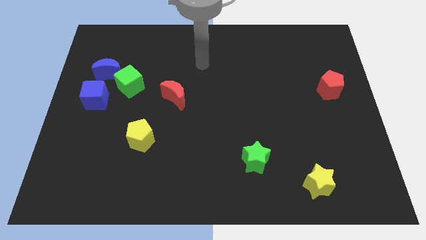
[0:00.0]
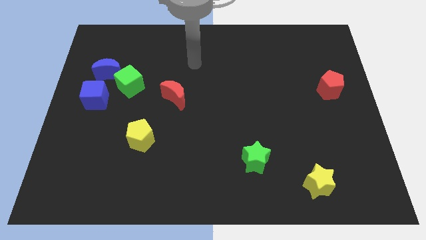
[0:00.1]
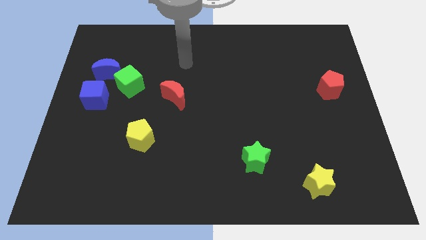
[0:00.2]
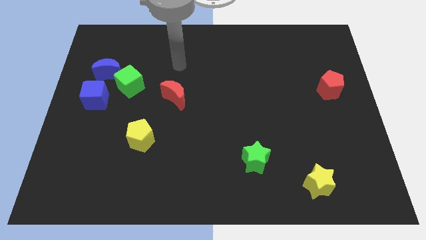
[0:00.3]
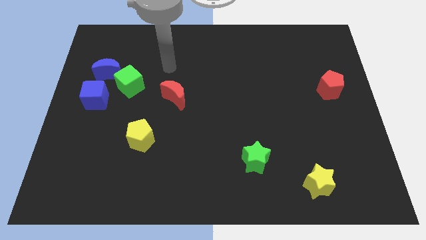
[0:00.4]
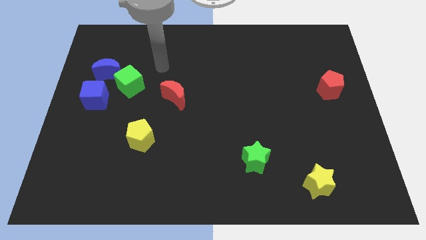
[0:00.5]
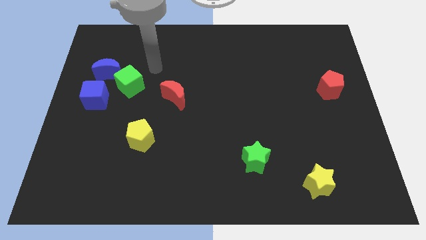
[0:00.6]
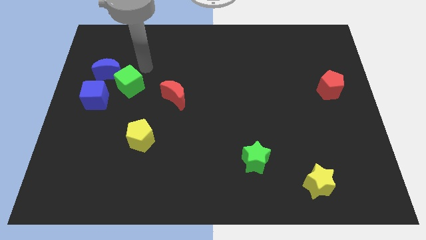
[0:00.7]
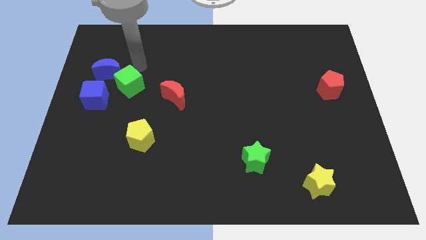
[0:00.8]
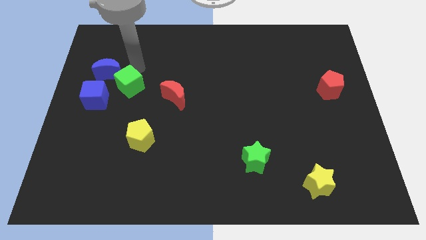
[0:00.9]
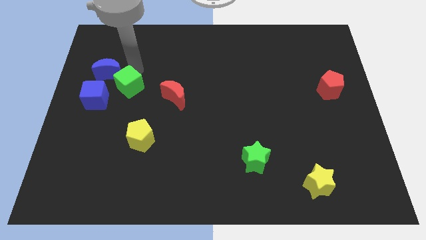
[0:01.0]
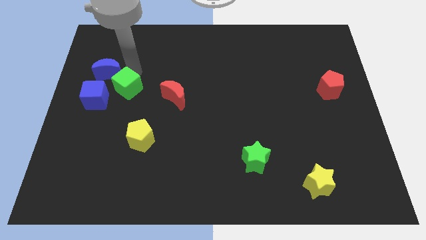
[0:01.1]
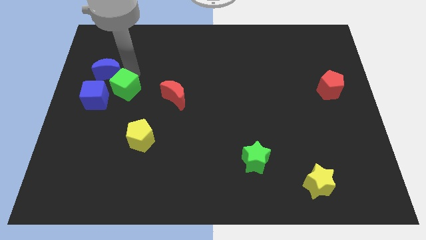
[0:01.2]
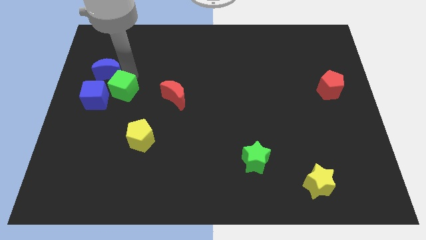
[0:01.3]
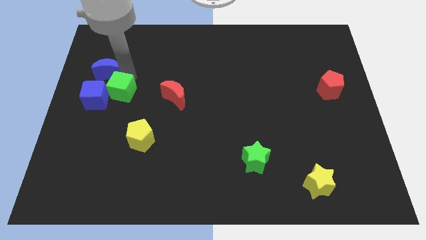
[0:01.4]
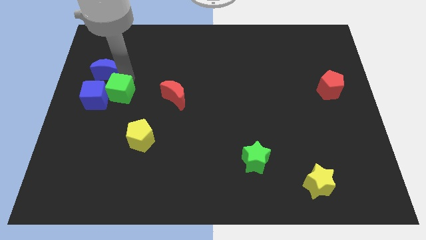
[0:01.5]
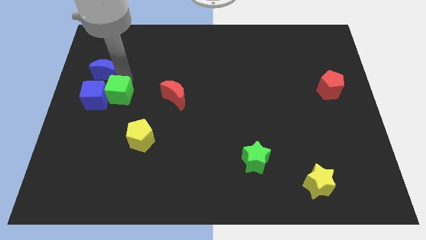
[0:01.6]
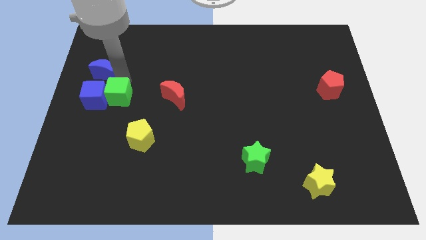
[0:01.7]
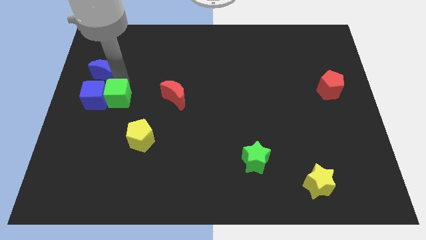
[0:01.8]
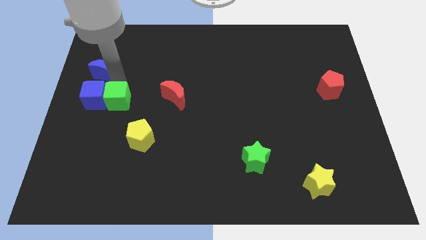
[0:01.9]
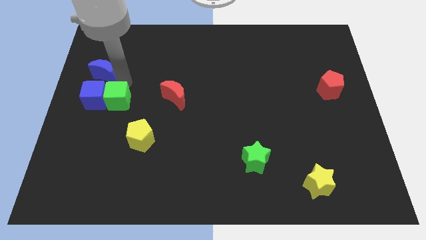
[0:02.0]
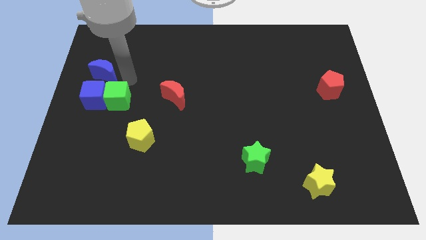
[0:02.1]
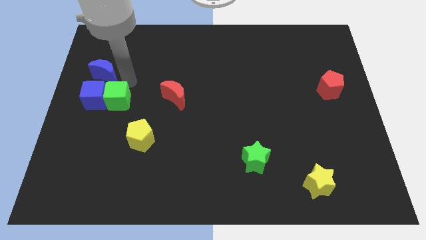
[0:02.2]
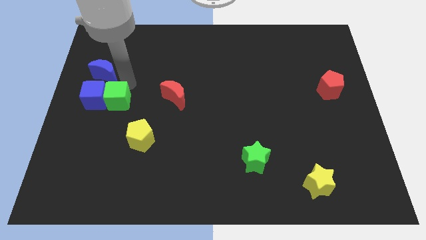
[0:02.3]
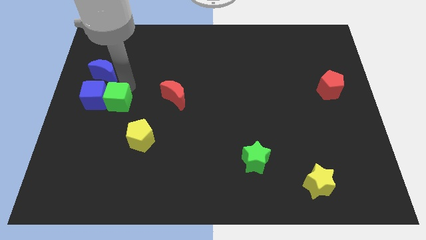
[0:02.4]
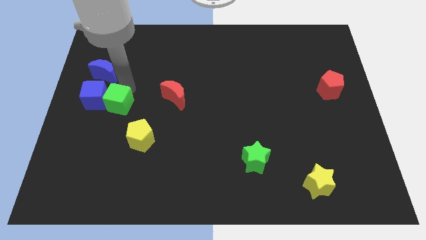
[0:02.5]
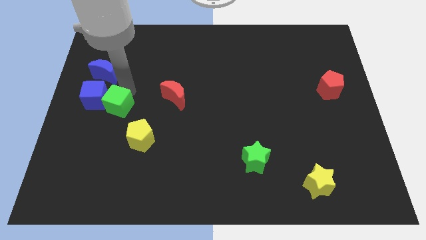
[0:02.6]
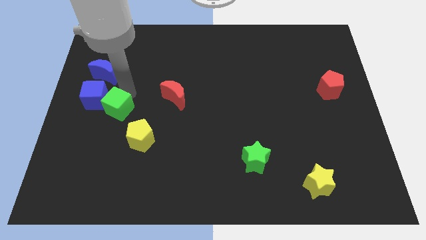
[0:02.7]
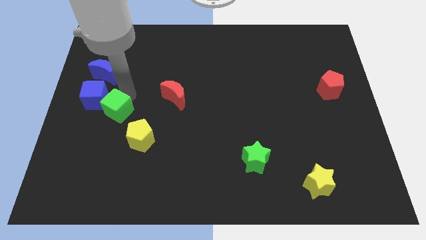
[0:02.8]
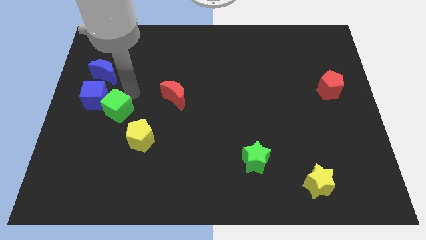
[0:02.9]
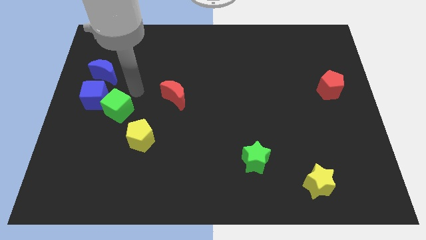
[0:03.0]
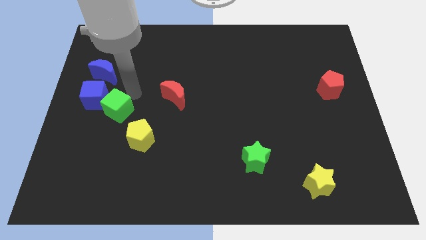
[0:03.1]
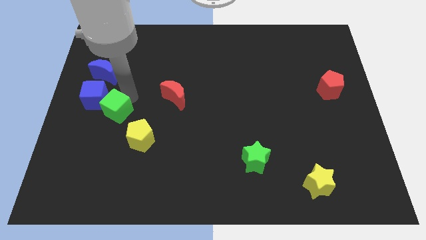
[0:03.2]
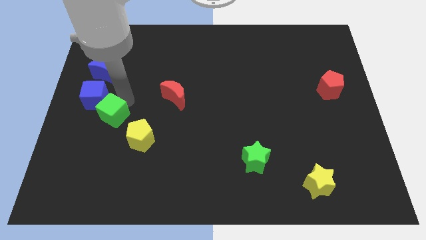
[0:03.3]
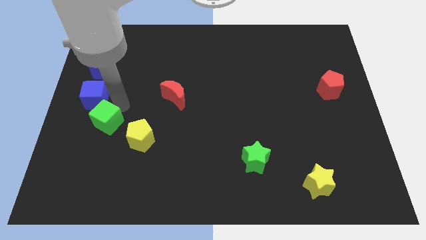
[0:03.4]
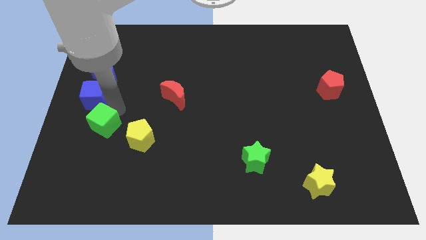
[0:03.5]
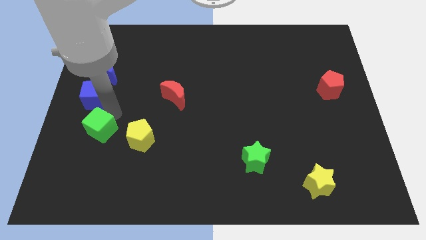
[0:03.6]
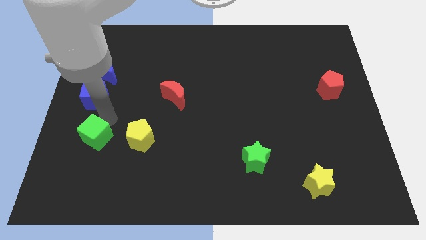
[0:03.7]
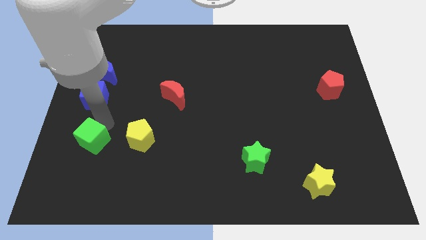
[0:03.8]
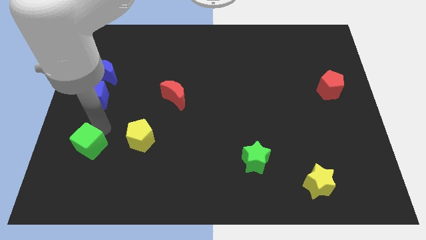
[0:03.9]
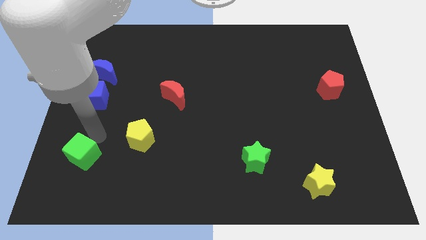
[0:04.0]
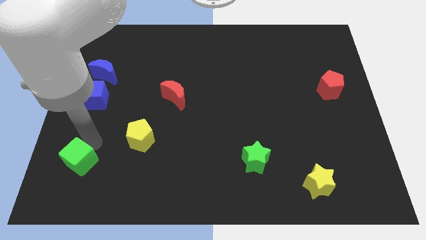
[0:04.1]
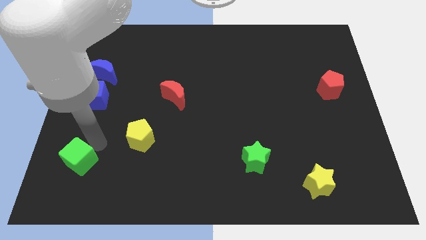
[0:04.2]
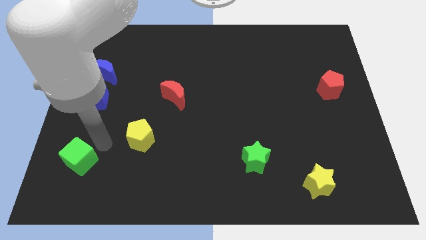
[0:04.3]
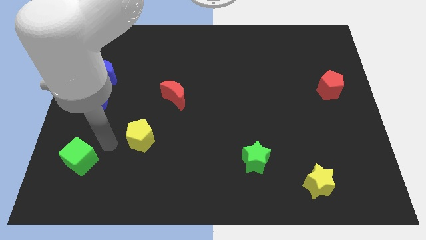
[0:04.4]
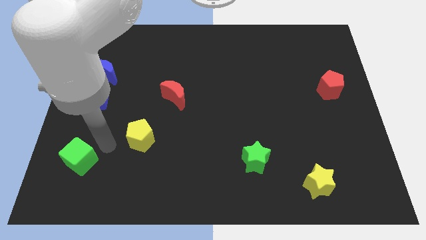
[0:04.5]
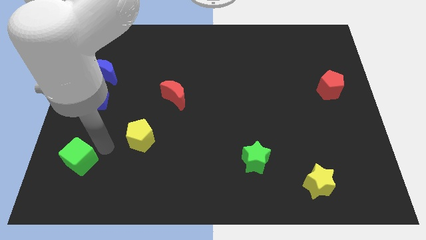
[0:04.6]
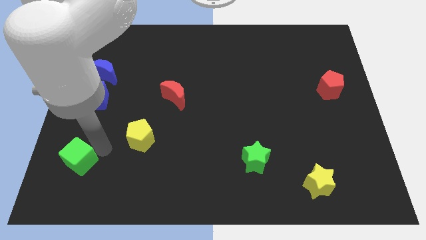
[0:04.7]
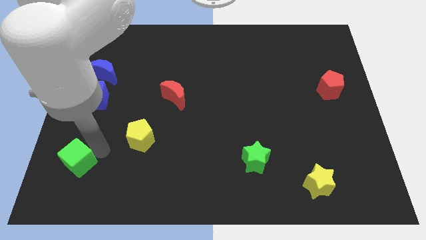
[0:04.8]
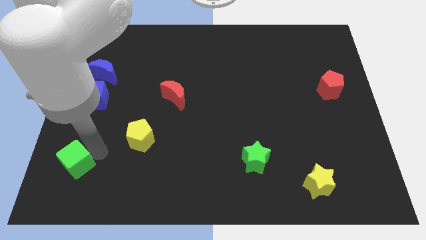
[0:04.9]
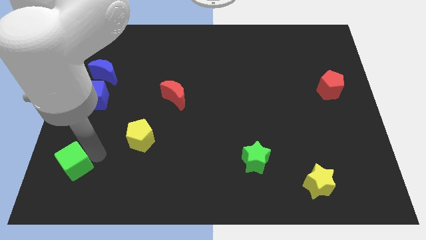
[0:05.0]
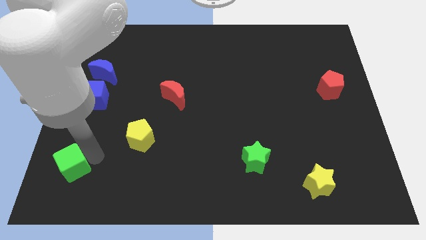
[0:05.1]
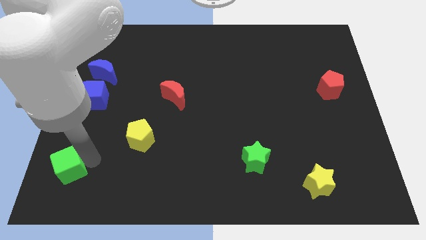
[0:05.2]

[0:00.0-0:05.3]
push the green cube to the bottom left of the board
